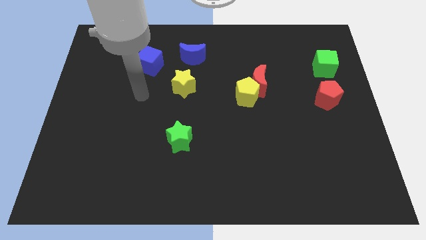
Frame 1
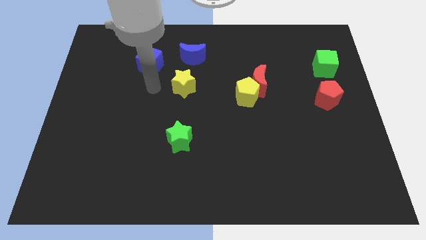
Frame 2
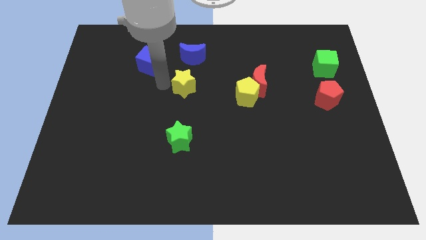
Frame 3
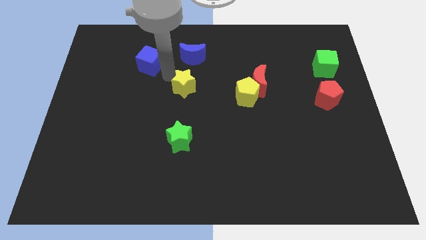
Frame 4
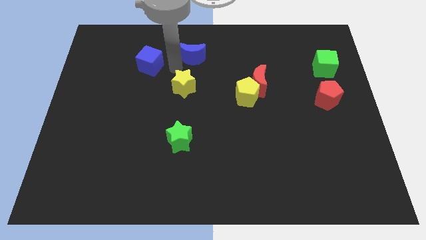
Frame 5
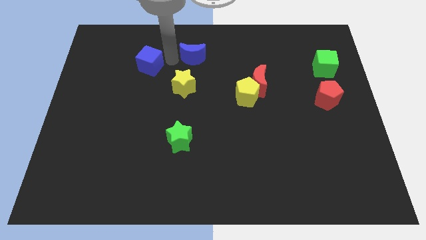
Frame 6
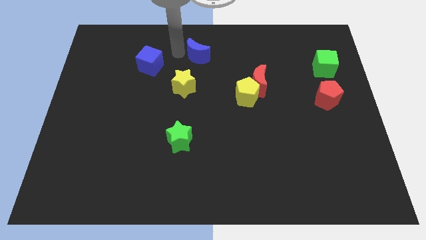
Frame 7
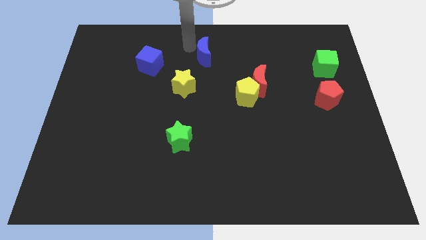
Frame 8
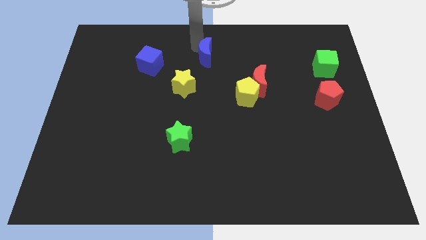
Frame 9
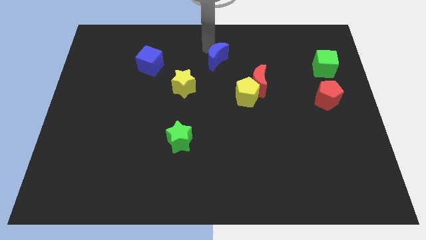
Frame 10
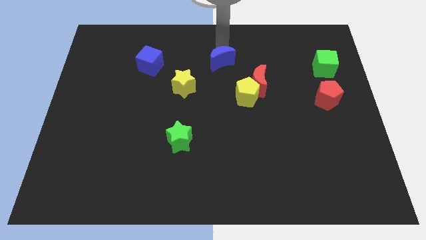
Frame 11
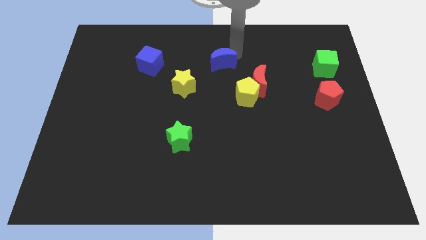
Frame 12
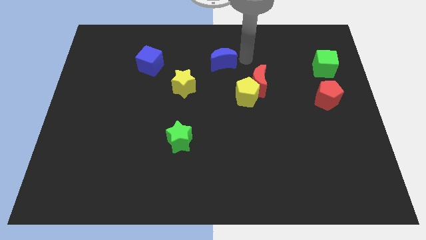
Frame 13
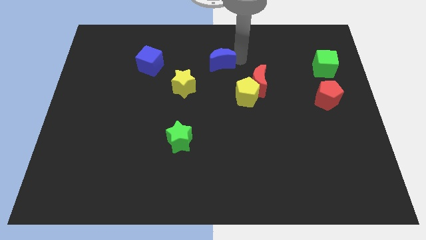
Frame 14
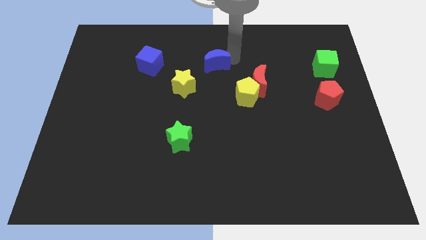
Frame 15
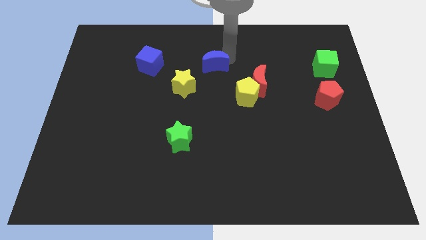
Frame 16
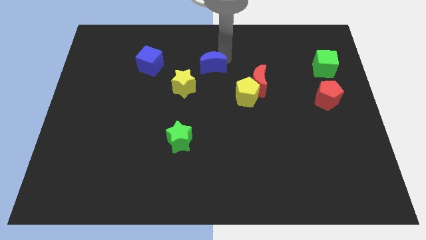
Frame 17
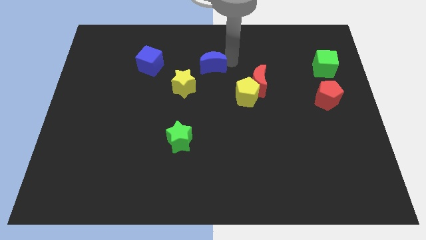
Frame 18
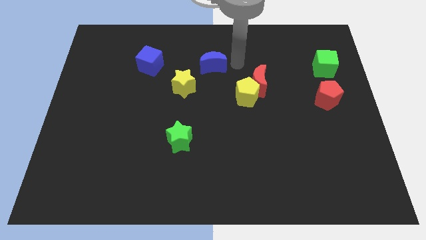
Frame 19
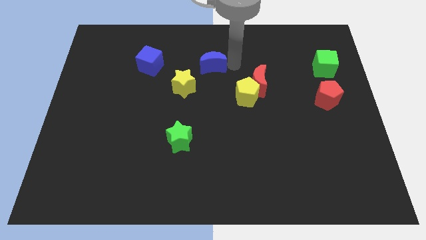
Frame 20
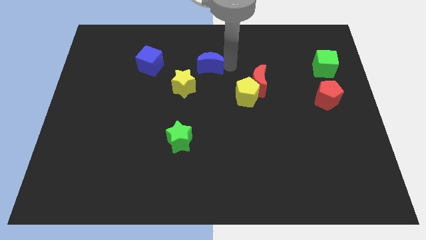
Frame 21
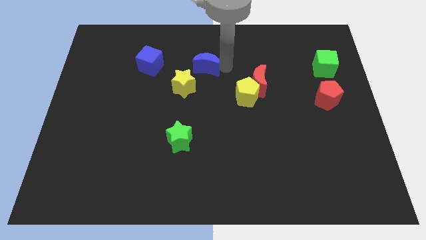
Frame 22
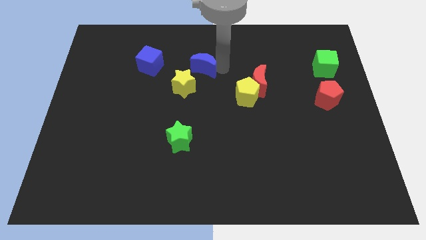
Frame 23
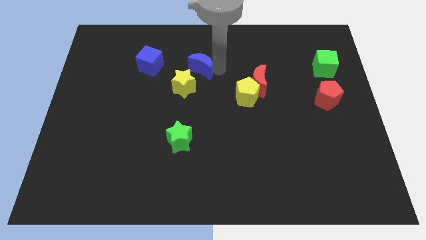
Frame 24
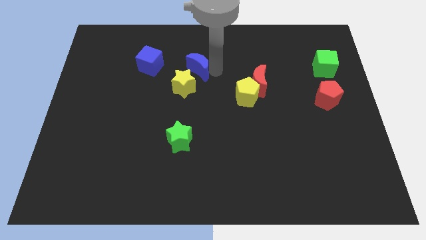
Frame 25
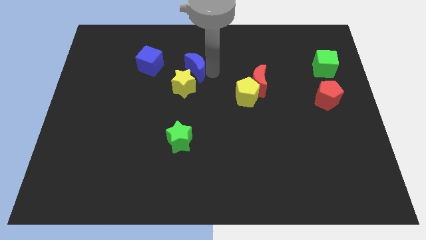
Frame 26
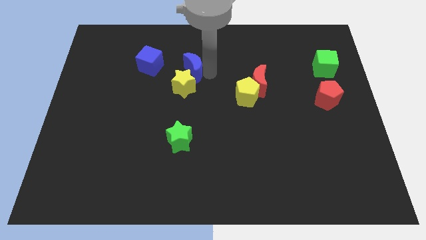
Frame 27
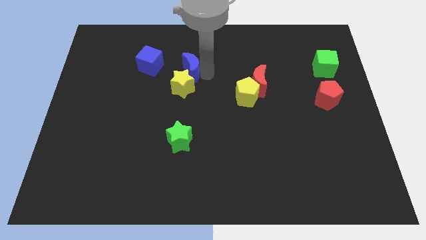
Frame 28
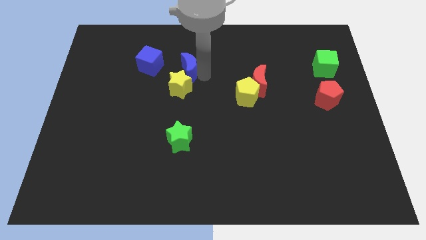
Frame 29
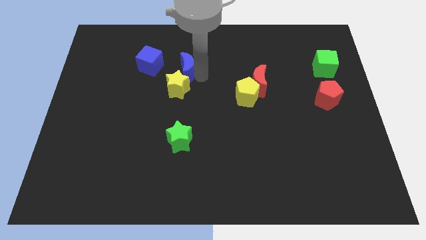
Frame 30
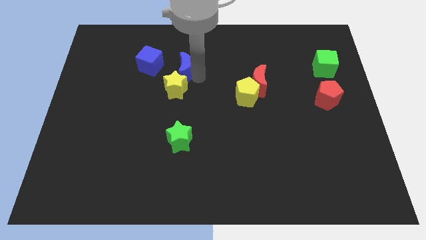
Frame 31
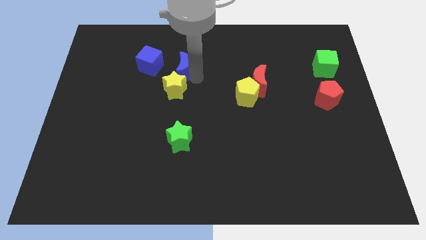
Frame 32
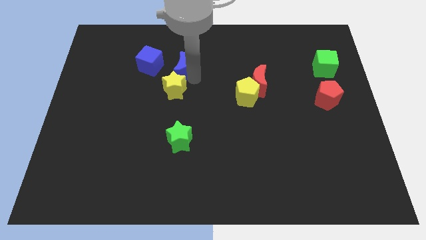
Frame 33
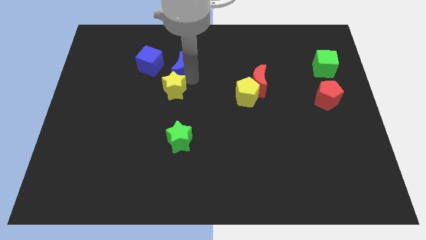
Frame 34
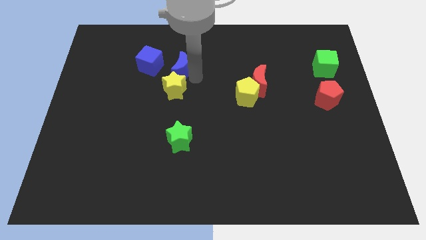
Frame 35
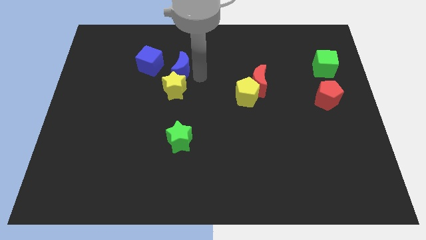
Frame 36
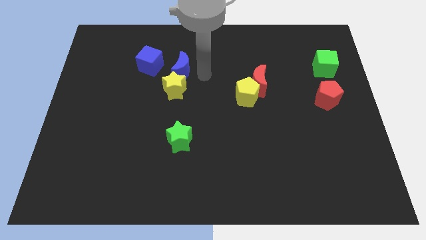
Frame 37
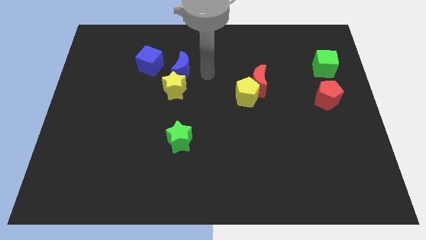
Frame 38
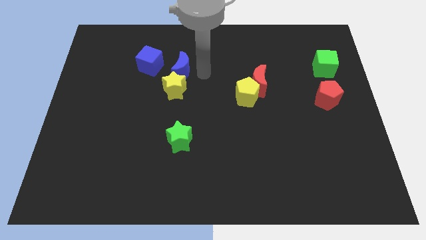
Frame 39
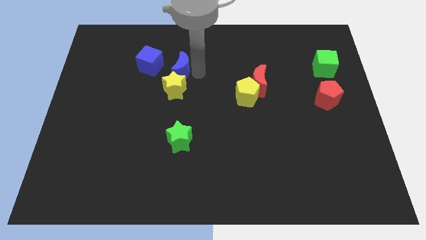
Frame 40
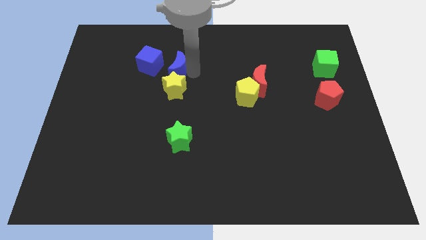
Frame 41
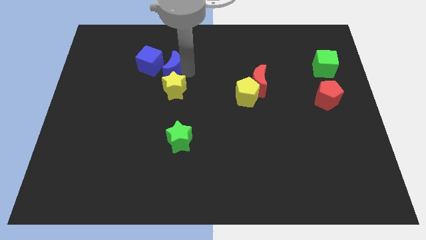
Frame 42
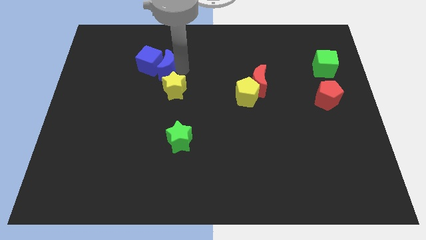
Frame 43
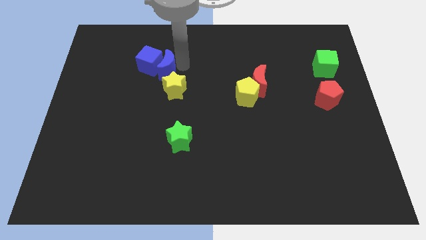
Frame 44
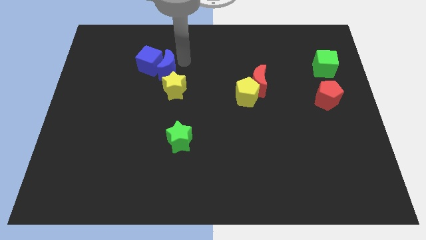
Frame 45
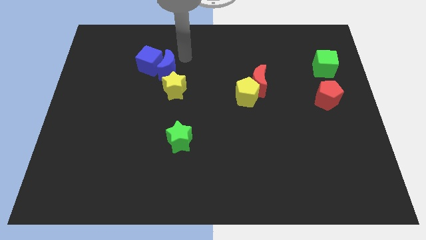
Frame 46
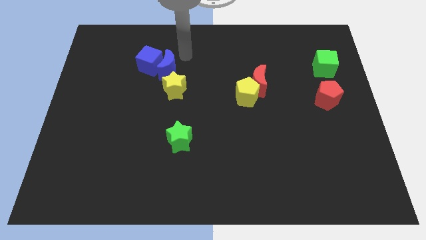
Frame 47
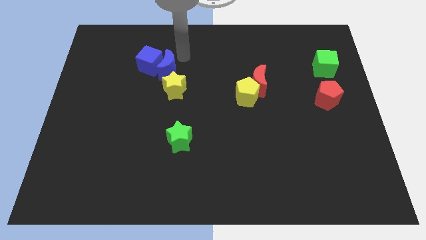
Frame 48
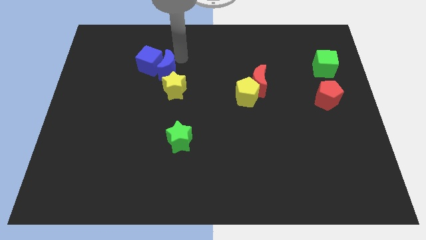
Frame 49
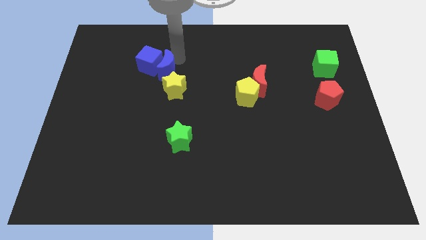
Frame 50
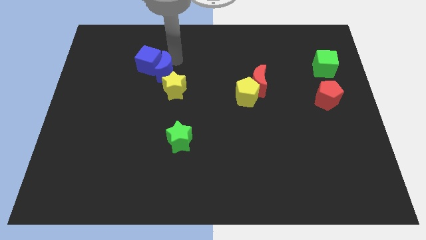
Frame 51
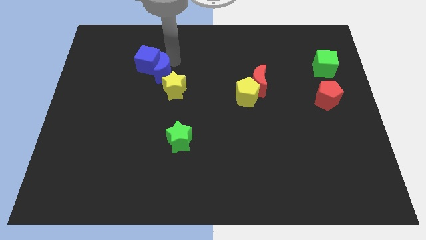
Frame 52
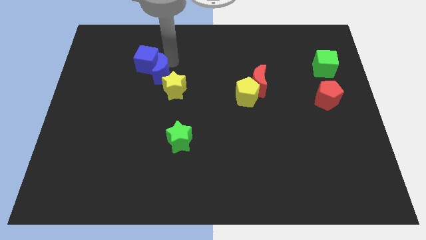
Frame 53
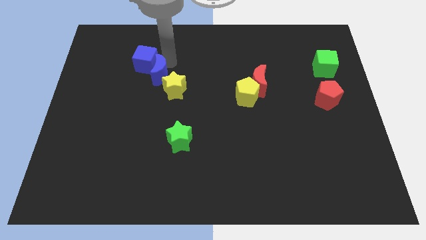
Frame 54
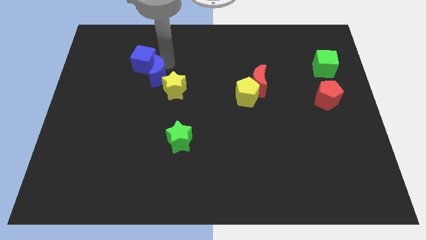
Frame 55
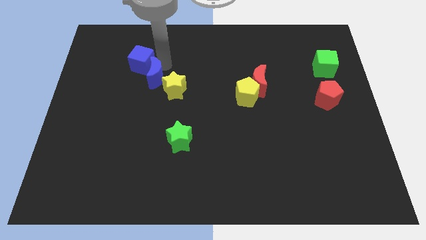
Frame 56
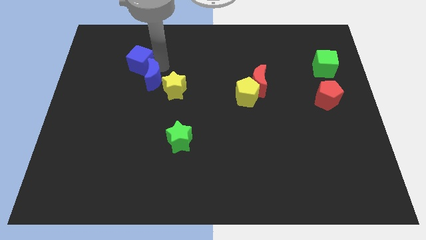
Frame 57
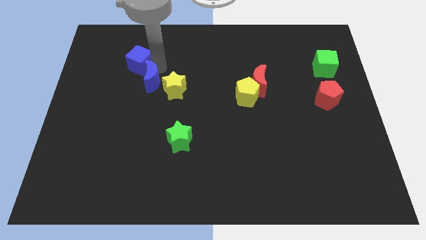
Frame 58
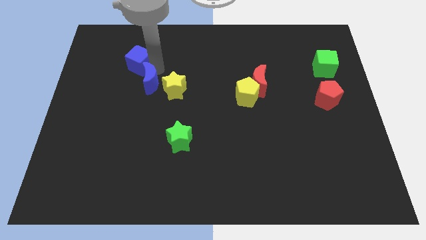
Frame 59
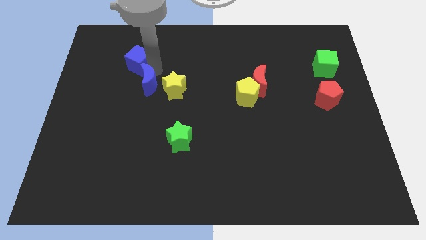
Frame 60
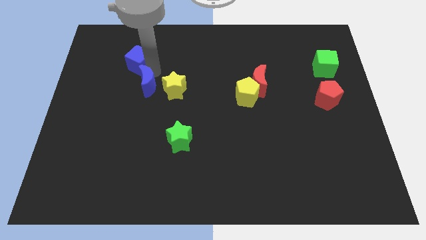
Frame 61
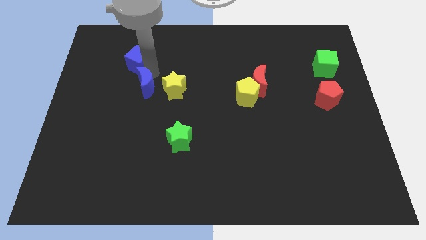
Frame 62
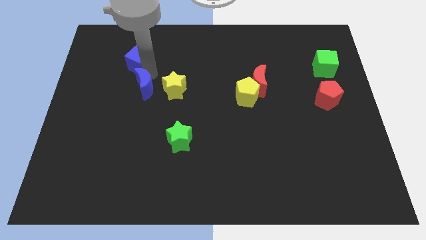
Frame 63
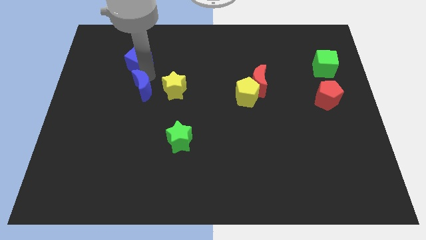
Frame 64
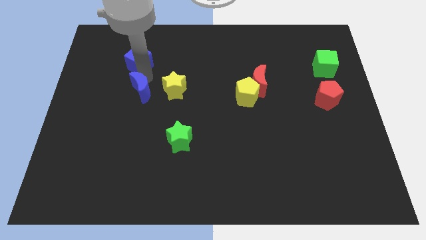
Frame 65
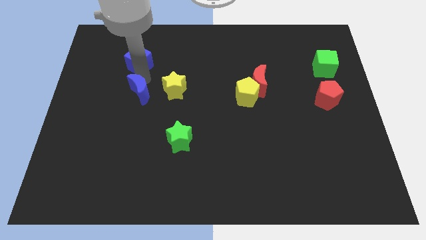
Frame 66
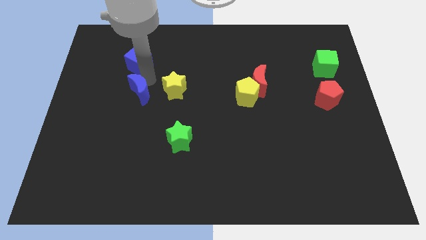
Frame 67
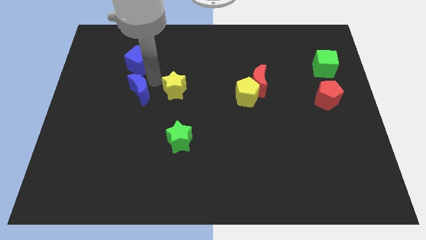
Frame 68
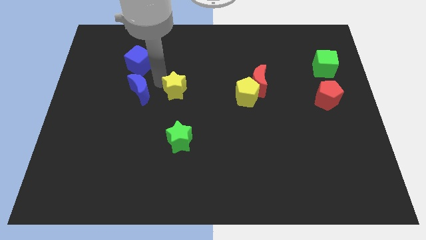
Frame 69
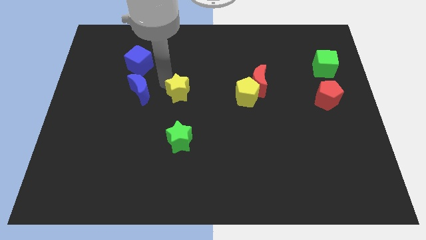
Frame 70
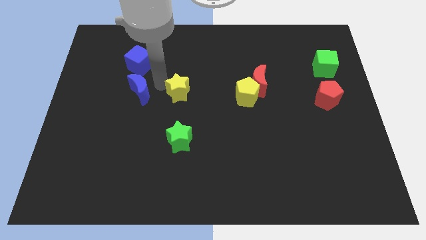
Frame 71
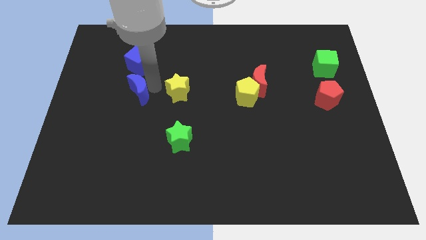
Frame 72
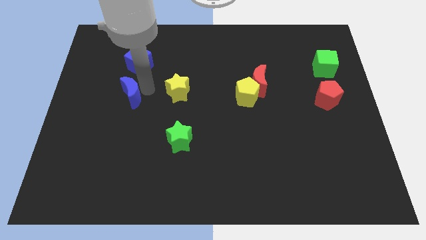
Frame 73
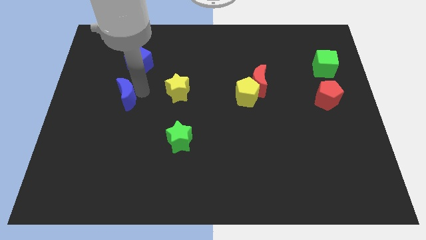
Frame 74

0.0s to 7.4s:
slide the blue moon downwards and to the left diagonally

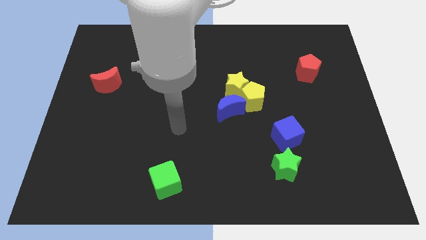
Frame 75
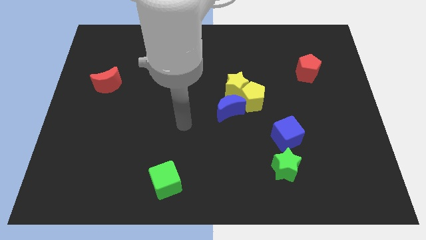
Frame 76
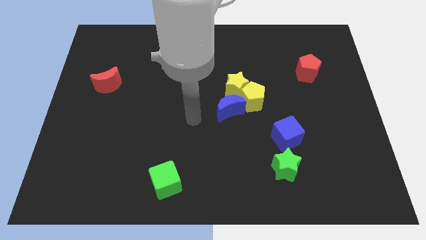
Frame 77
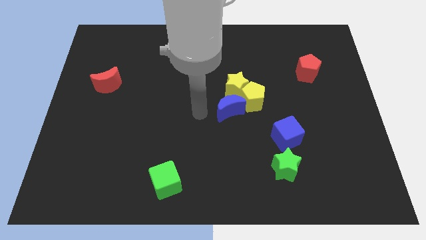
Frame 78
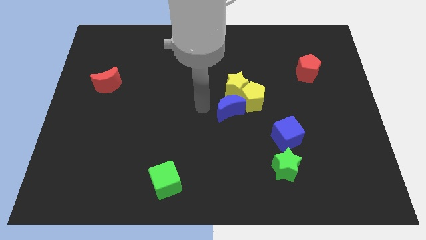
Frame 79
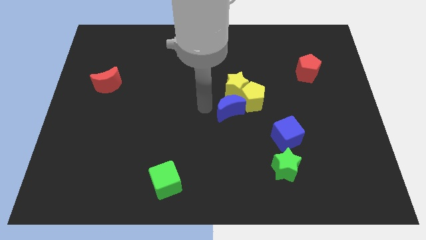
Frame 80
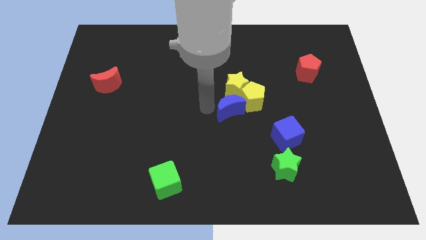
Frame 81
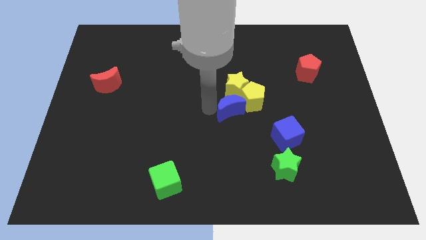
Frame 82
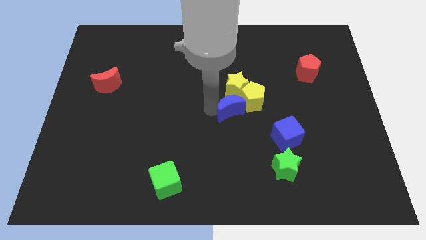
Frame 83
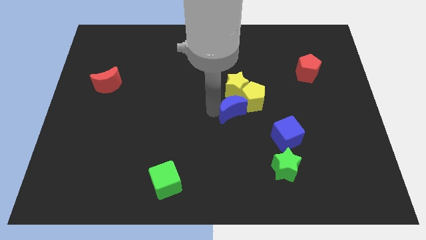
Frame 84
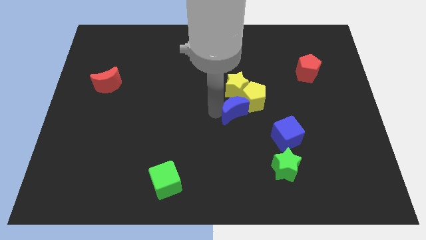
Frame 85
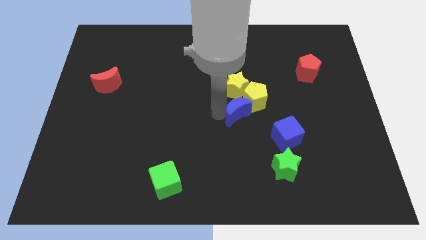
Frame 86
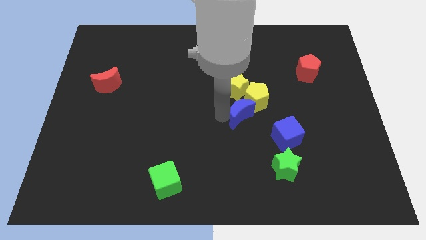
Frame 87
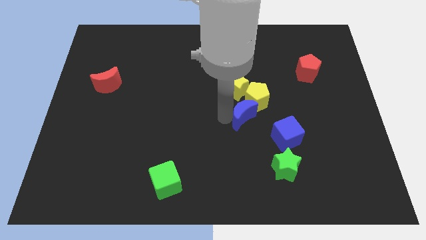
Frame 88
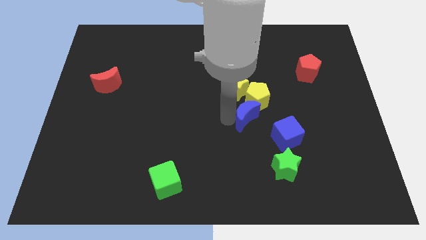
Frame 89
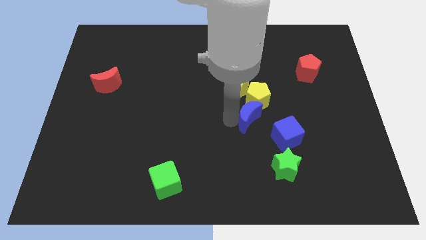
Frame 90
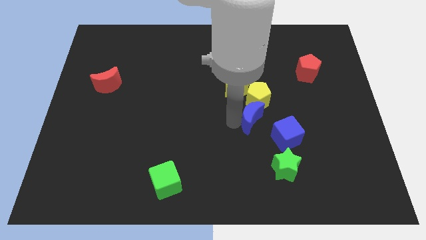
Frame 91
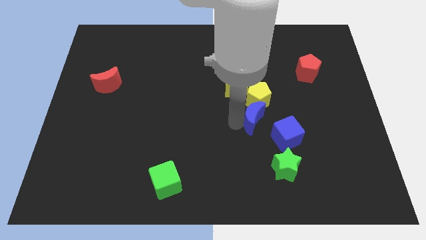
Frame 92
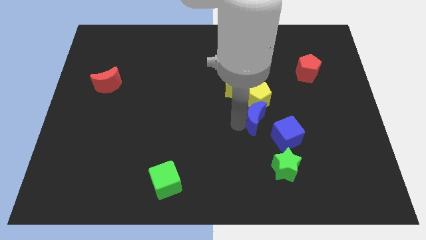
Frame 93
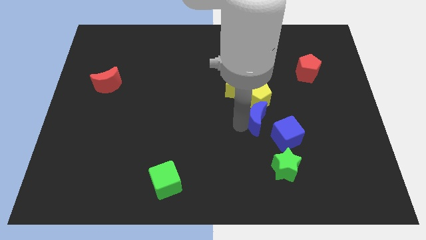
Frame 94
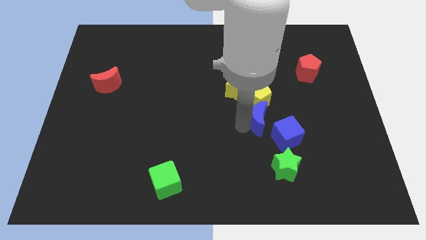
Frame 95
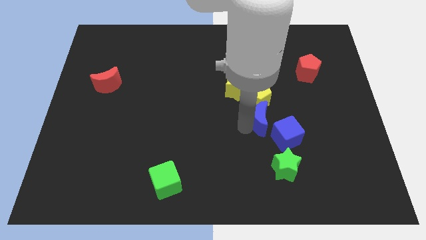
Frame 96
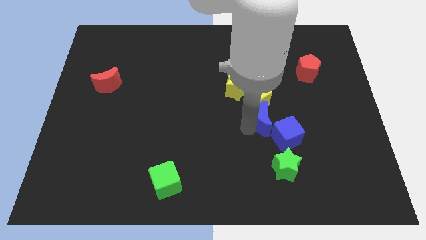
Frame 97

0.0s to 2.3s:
move the blue moon right somewhat
